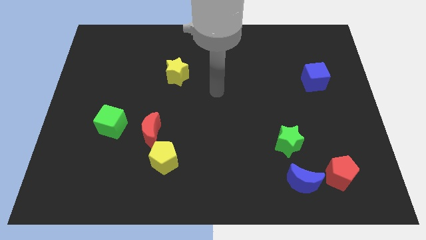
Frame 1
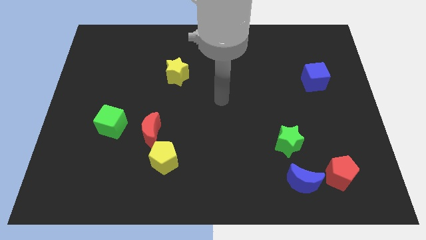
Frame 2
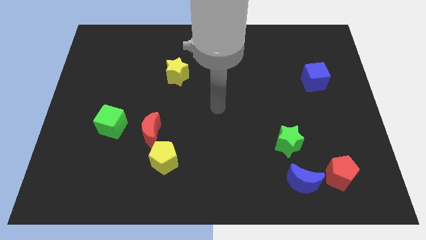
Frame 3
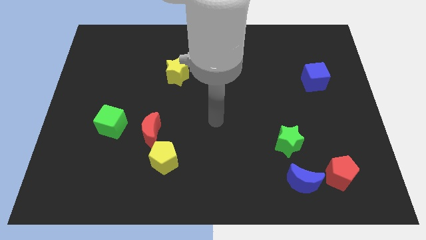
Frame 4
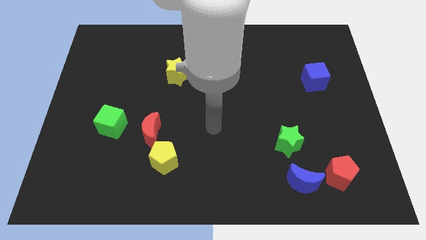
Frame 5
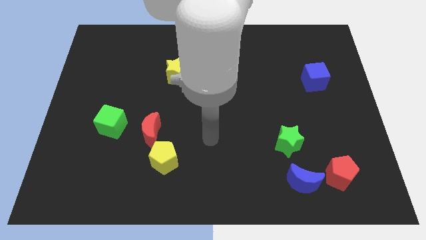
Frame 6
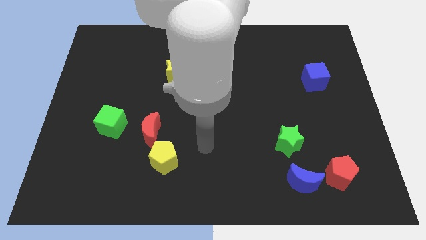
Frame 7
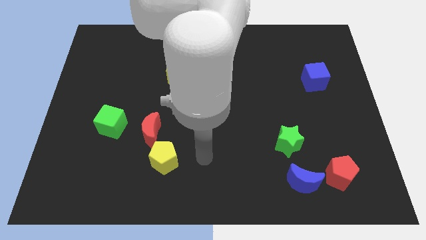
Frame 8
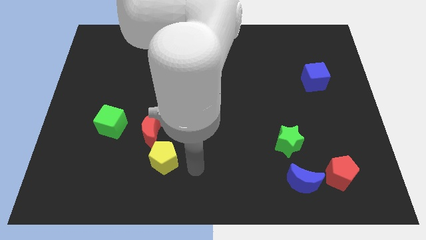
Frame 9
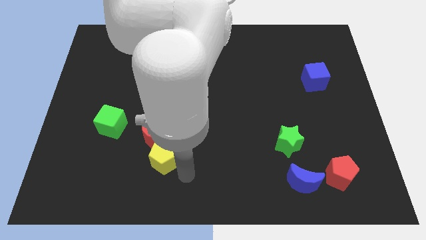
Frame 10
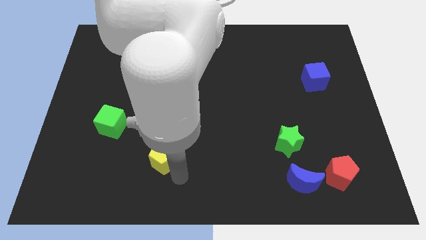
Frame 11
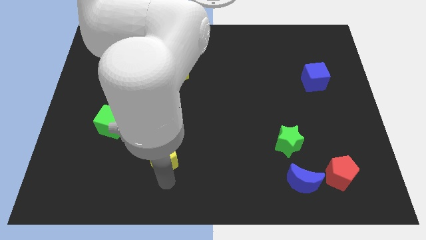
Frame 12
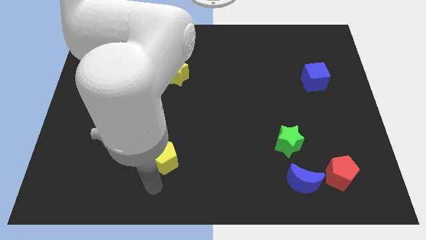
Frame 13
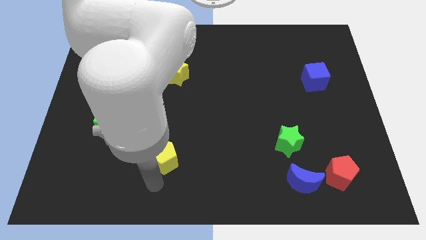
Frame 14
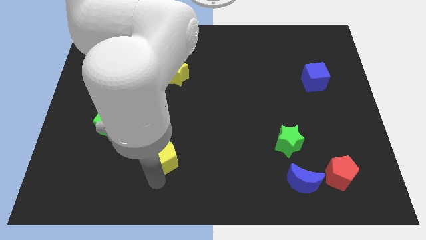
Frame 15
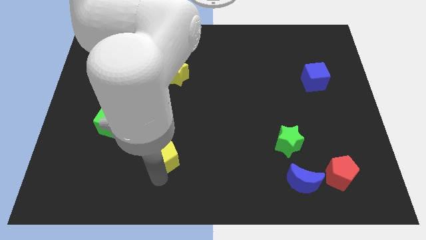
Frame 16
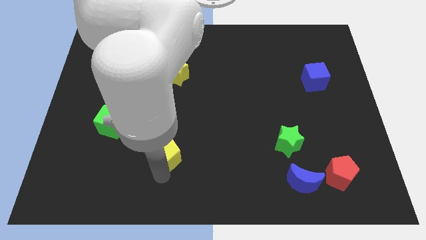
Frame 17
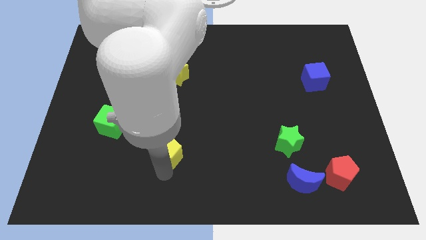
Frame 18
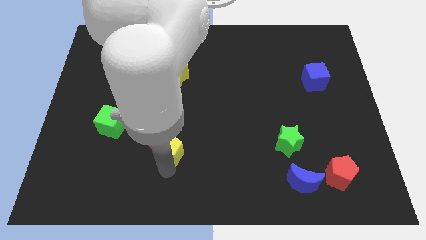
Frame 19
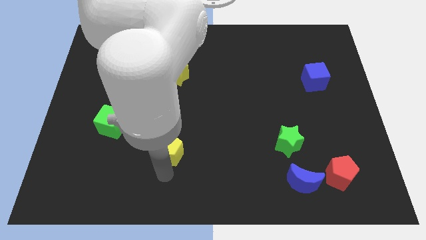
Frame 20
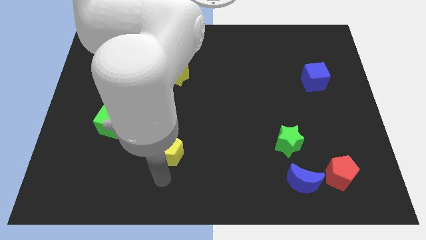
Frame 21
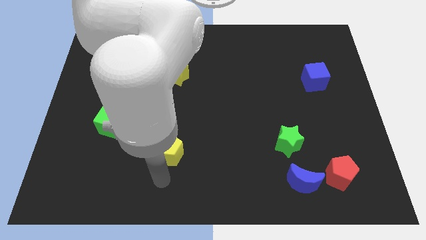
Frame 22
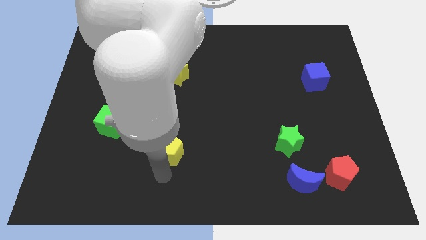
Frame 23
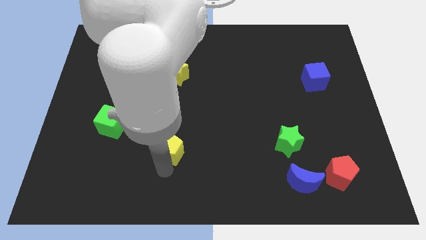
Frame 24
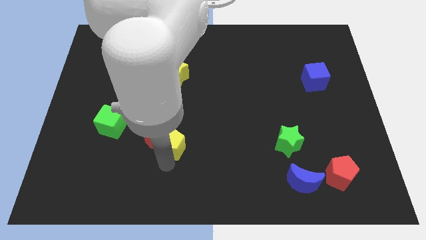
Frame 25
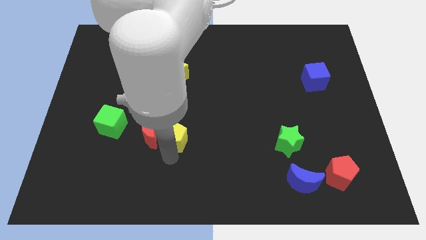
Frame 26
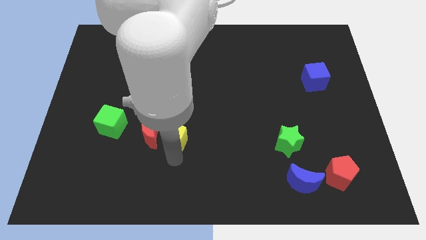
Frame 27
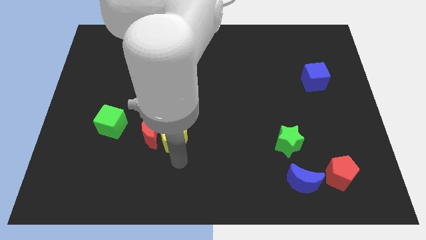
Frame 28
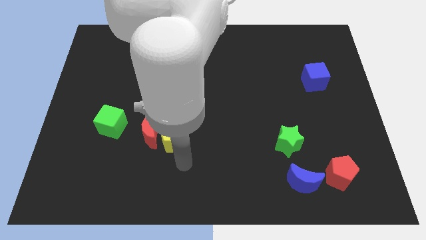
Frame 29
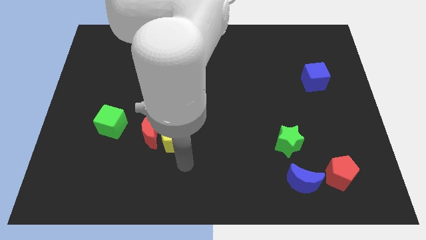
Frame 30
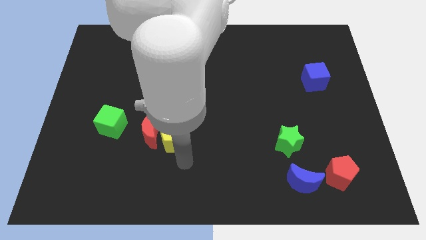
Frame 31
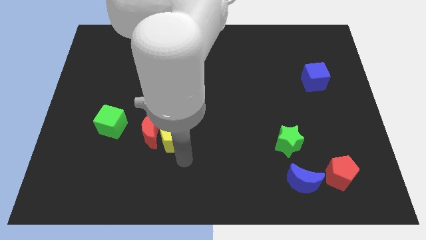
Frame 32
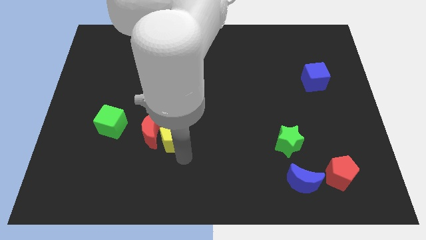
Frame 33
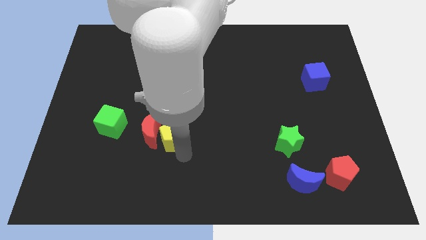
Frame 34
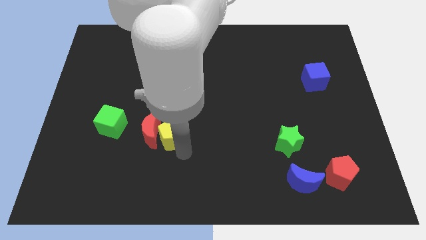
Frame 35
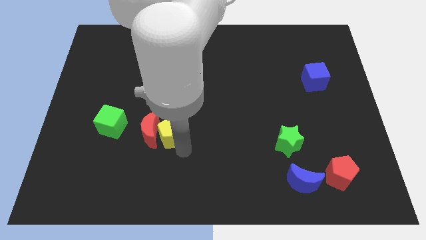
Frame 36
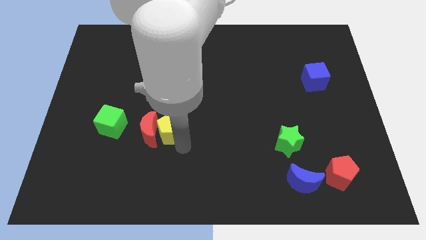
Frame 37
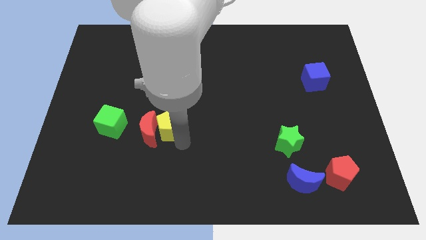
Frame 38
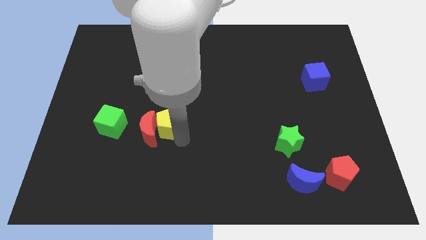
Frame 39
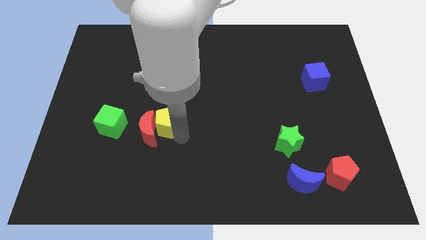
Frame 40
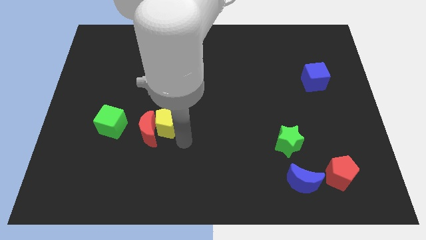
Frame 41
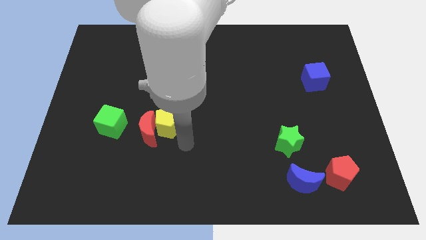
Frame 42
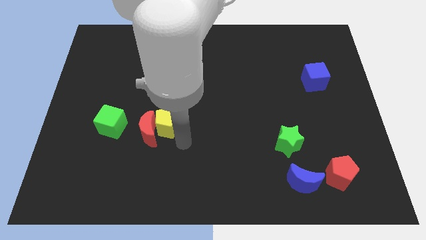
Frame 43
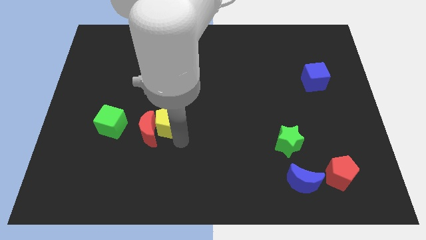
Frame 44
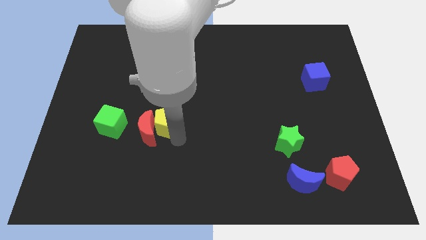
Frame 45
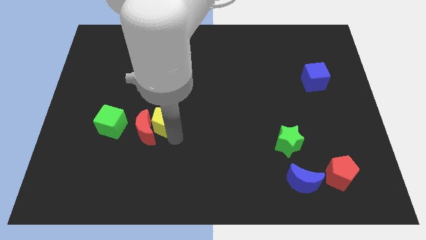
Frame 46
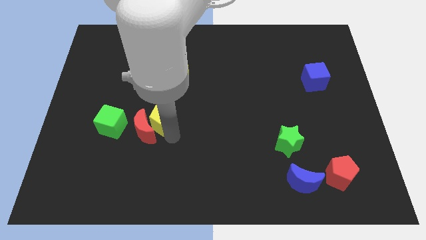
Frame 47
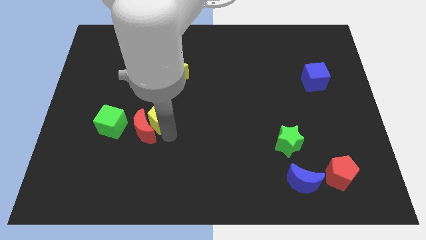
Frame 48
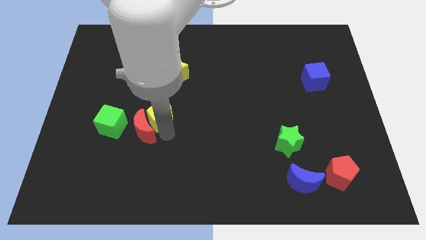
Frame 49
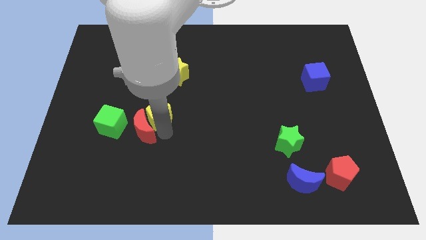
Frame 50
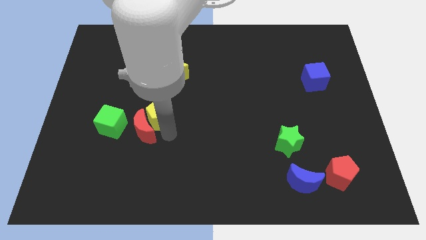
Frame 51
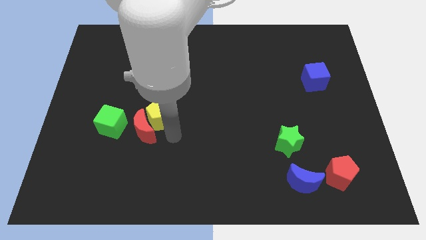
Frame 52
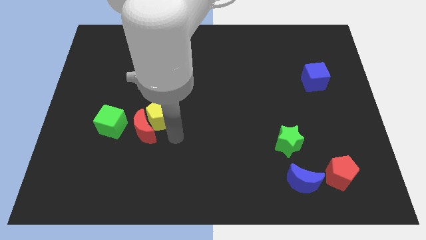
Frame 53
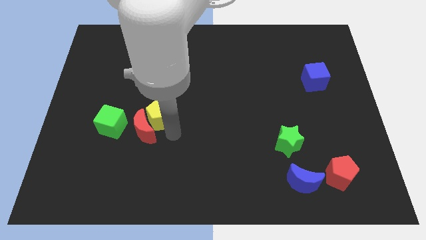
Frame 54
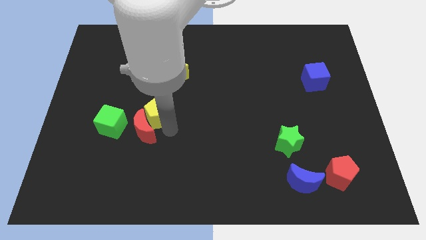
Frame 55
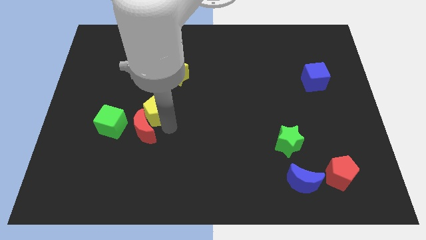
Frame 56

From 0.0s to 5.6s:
move the yellow pentagon diagonally up and to the right of the green cube

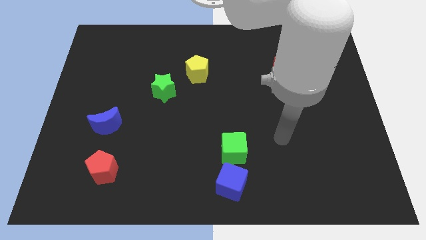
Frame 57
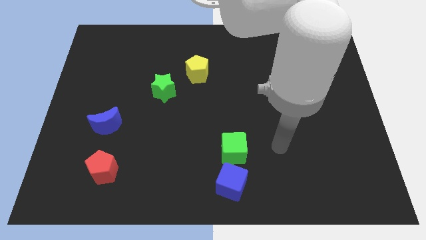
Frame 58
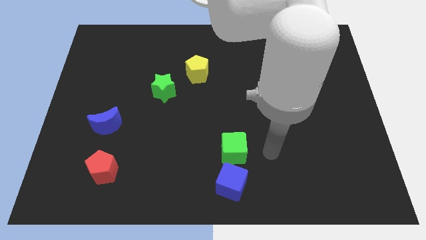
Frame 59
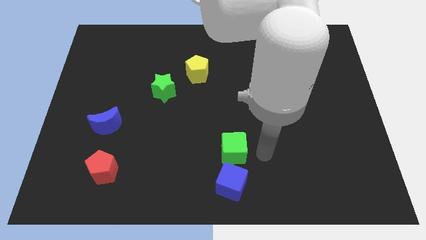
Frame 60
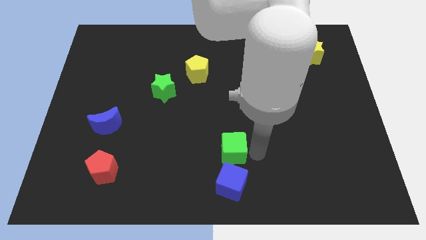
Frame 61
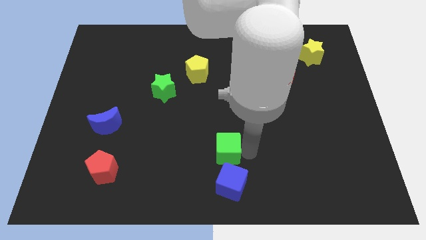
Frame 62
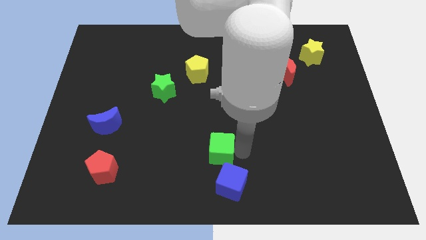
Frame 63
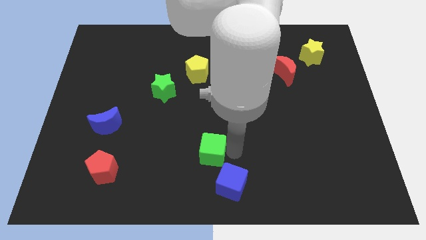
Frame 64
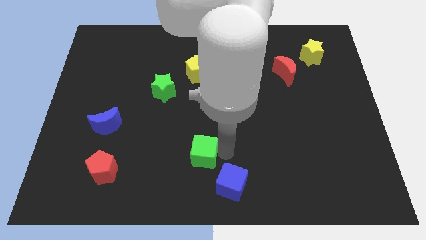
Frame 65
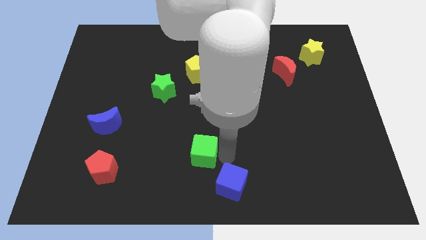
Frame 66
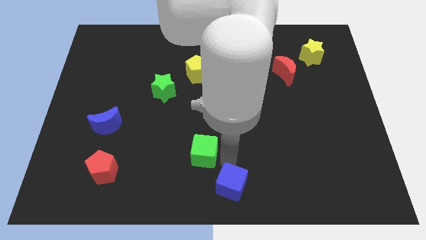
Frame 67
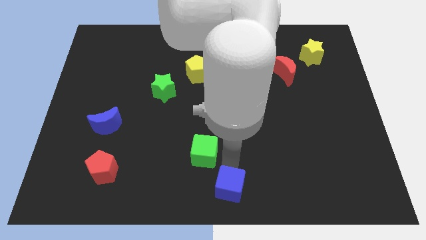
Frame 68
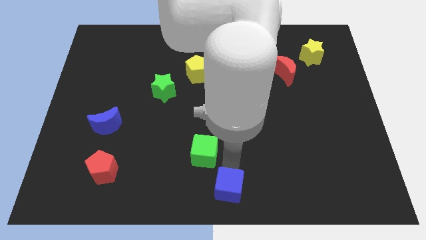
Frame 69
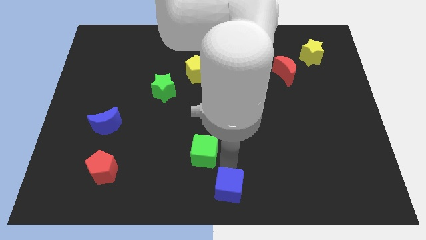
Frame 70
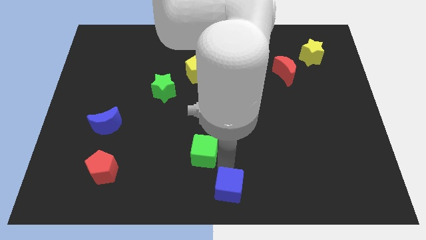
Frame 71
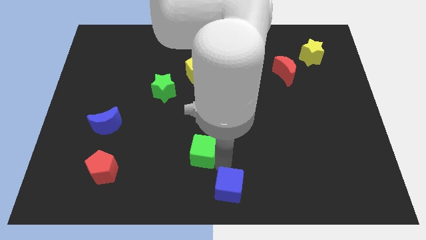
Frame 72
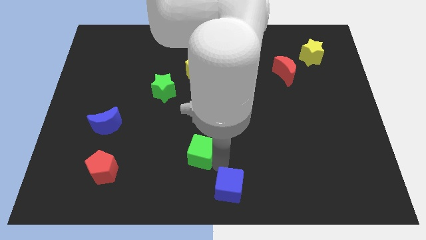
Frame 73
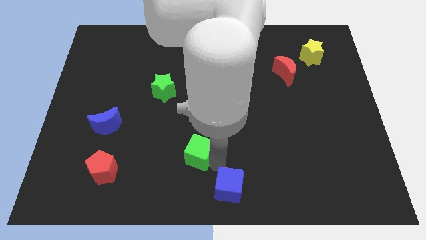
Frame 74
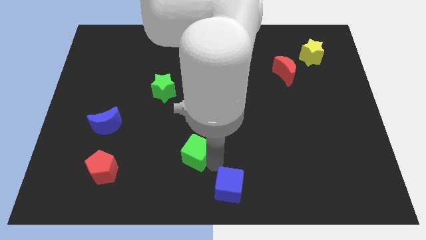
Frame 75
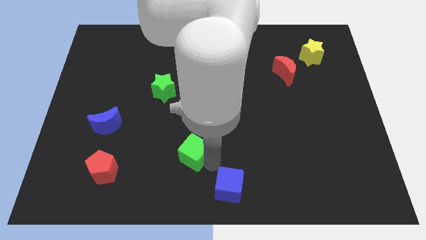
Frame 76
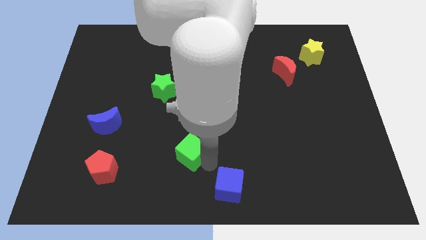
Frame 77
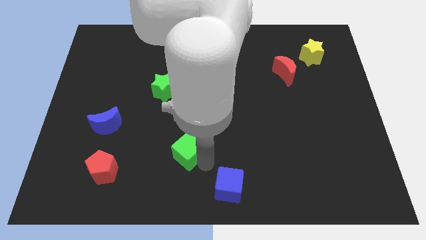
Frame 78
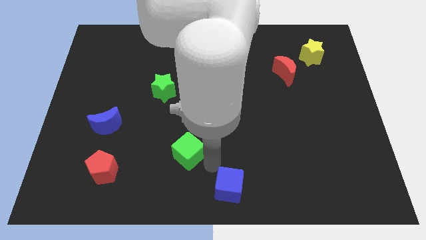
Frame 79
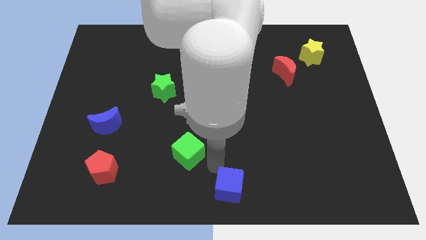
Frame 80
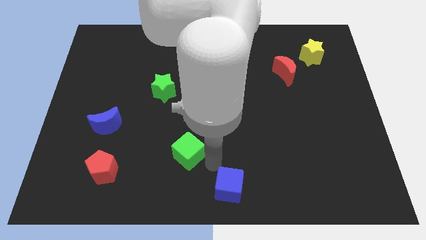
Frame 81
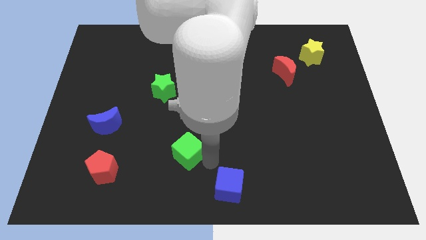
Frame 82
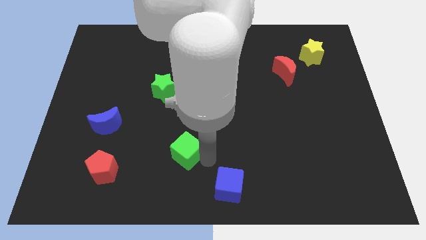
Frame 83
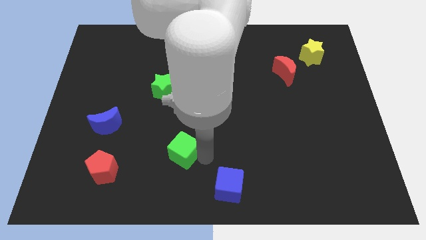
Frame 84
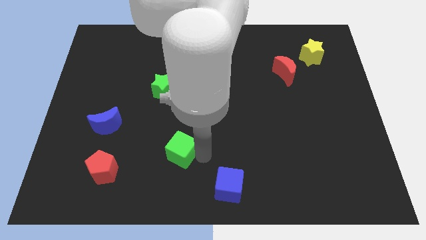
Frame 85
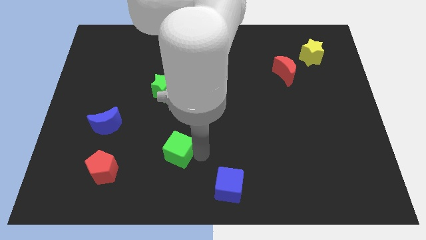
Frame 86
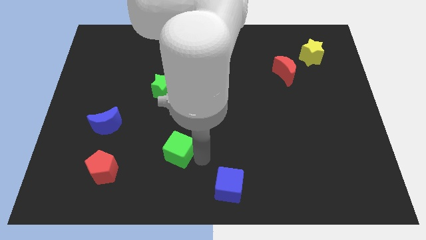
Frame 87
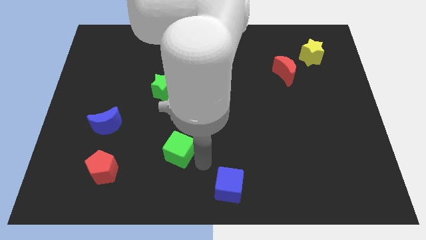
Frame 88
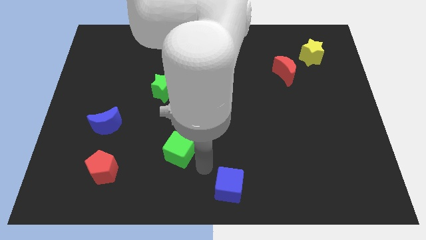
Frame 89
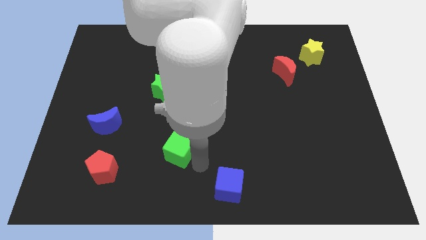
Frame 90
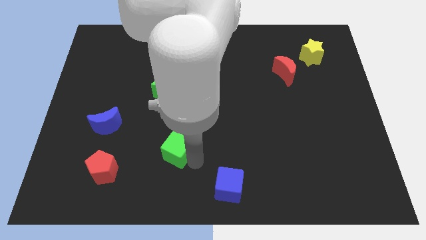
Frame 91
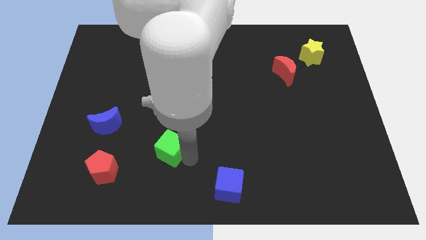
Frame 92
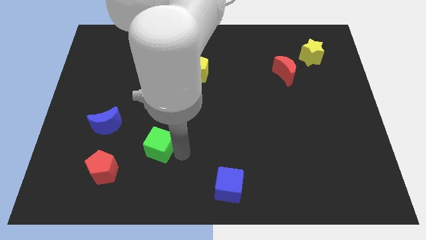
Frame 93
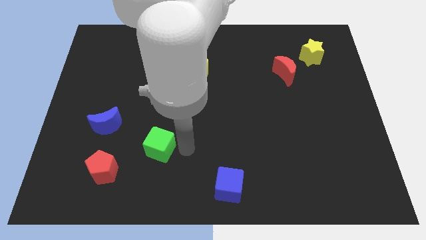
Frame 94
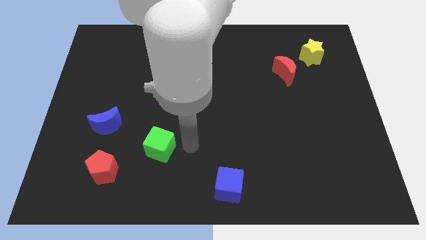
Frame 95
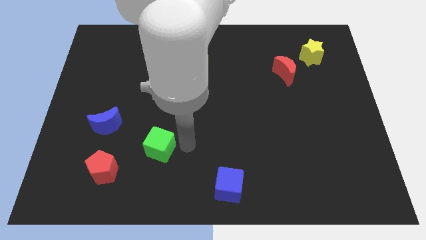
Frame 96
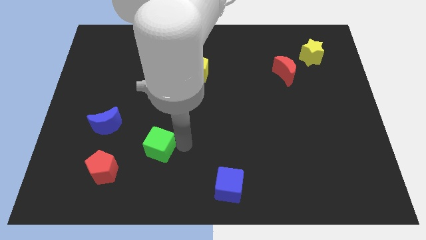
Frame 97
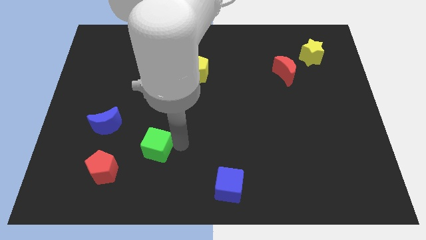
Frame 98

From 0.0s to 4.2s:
slide the green cube to the top right of the red pentagon
